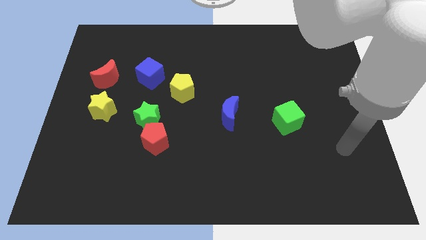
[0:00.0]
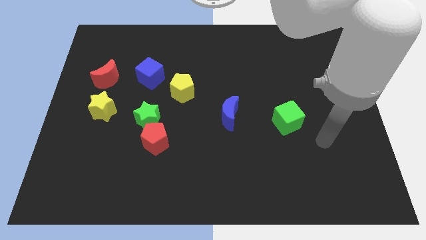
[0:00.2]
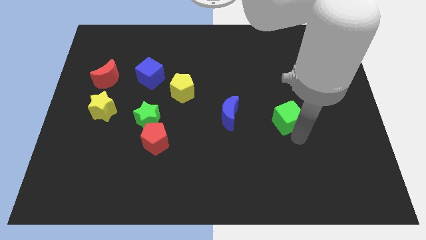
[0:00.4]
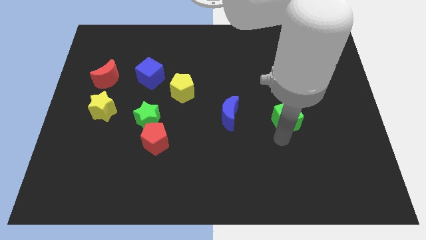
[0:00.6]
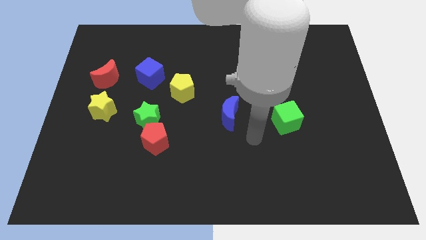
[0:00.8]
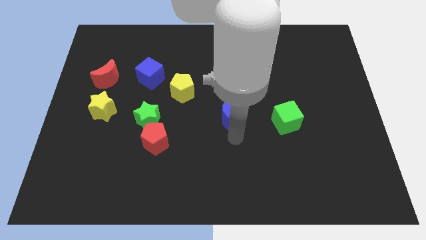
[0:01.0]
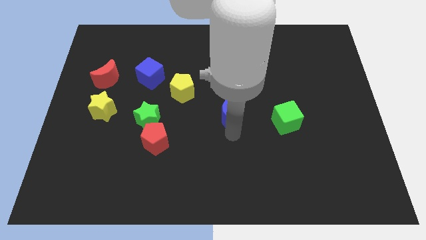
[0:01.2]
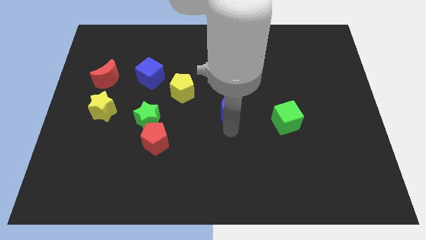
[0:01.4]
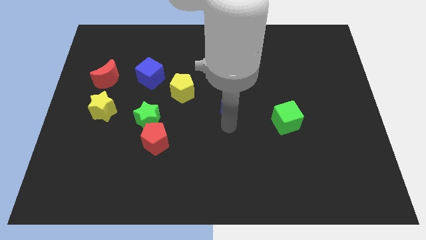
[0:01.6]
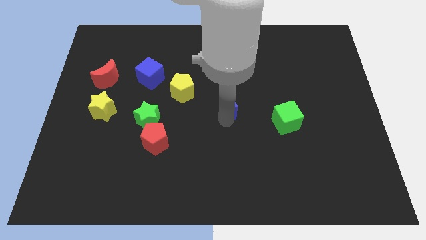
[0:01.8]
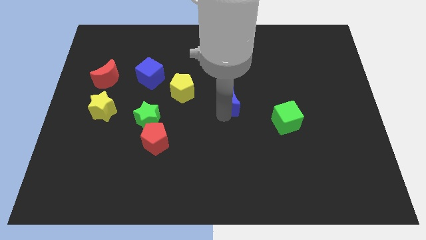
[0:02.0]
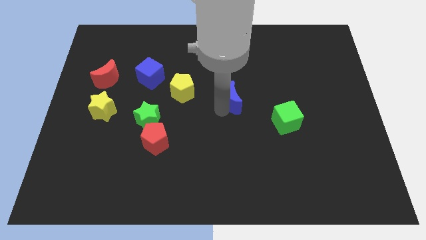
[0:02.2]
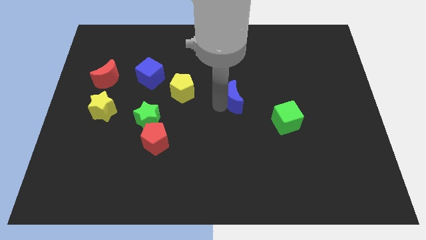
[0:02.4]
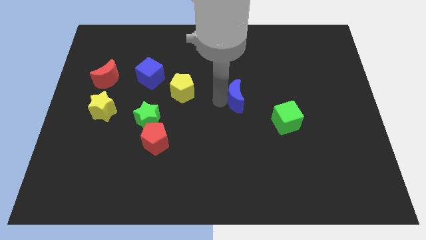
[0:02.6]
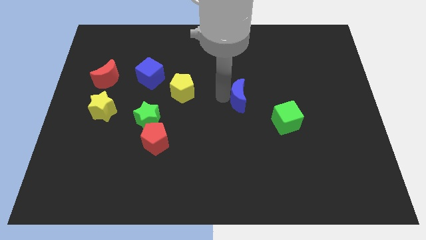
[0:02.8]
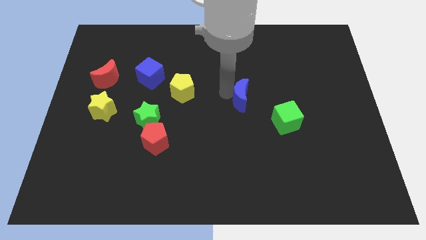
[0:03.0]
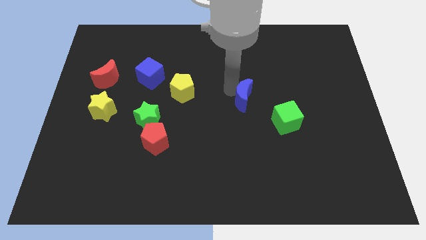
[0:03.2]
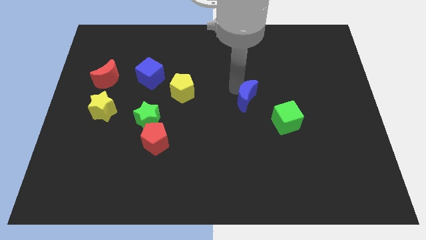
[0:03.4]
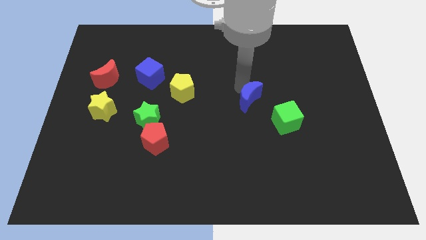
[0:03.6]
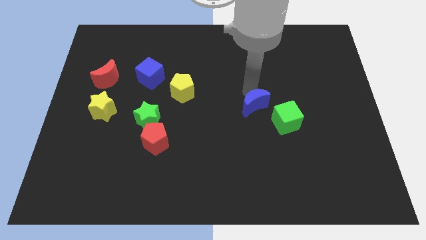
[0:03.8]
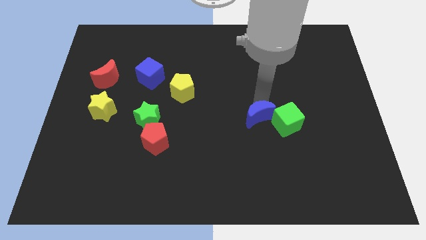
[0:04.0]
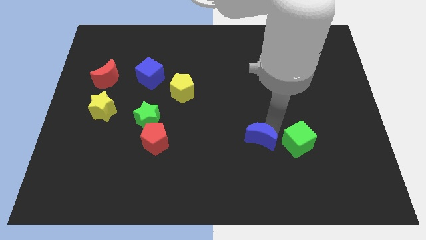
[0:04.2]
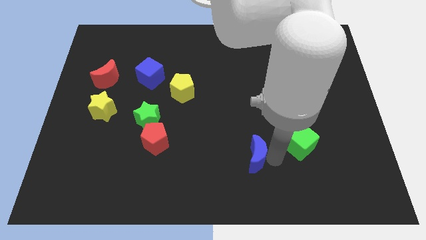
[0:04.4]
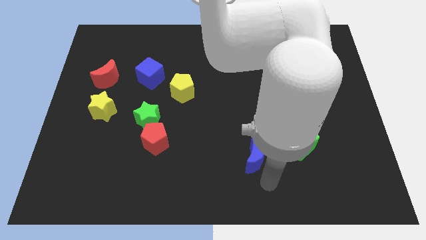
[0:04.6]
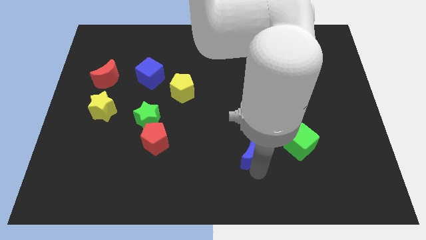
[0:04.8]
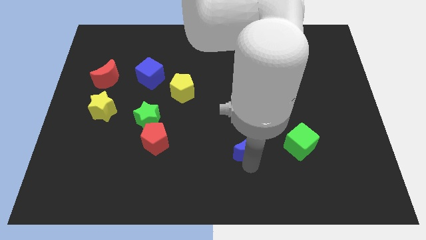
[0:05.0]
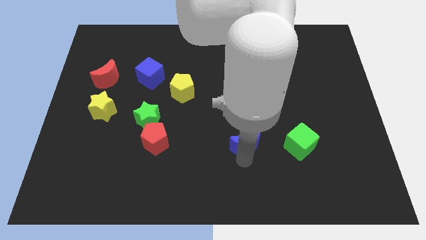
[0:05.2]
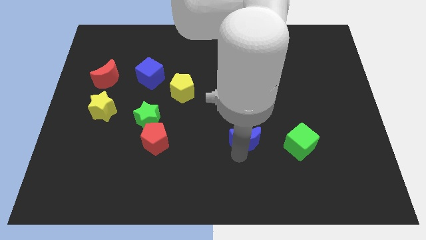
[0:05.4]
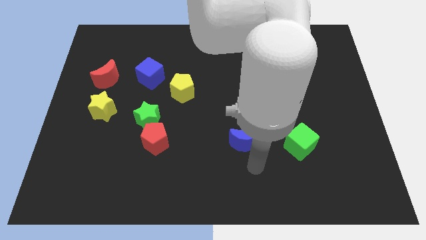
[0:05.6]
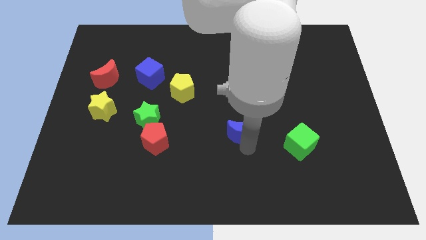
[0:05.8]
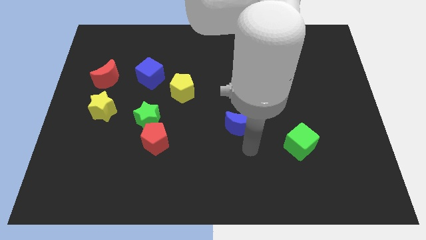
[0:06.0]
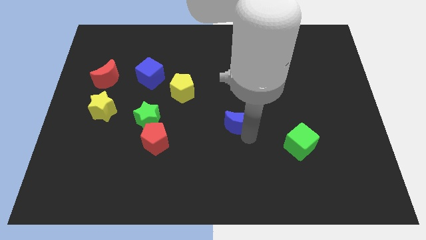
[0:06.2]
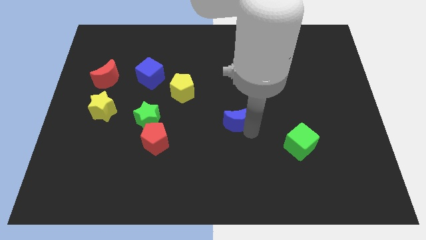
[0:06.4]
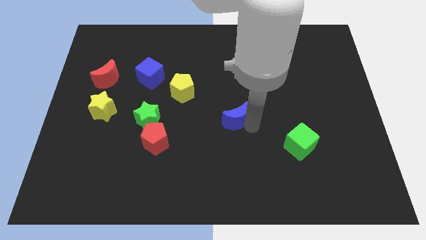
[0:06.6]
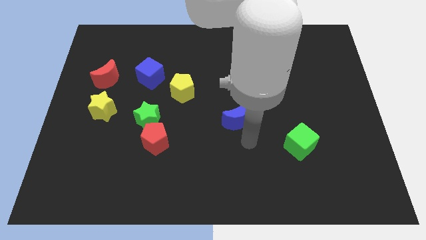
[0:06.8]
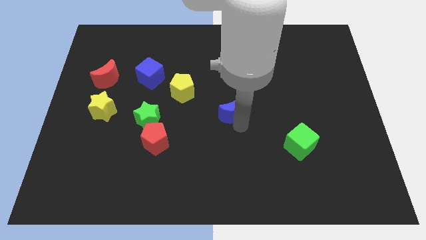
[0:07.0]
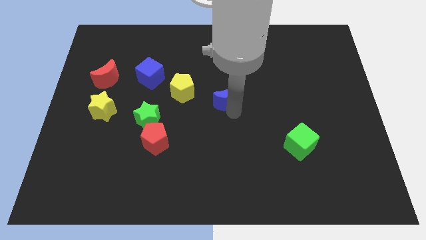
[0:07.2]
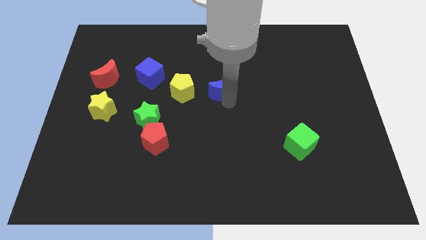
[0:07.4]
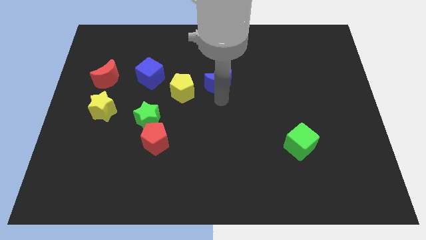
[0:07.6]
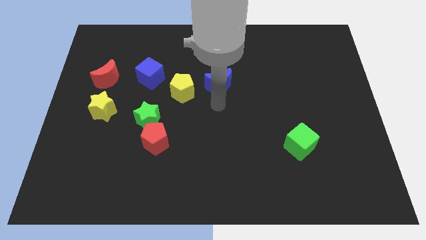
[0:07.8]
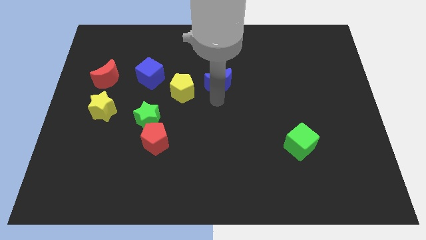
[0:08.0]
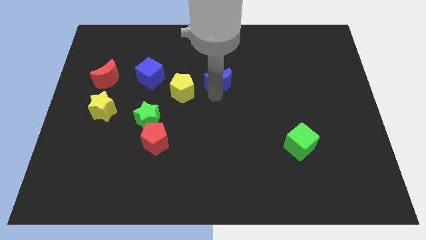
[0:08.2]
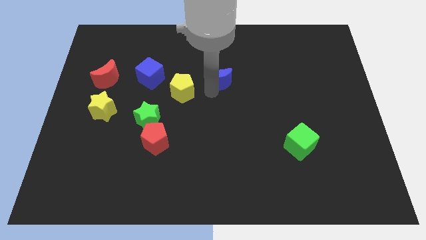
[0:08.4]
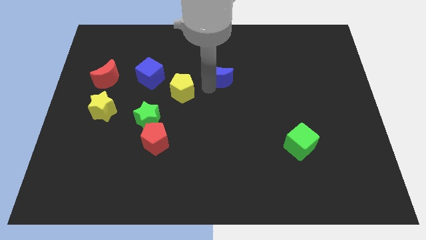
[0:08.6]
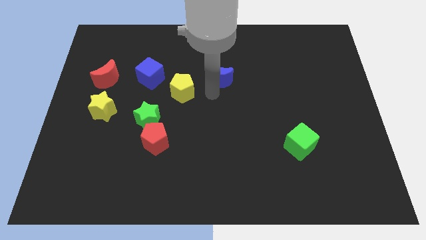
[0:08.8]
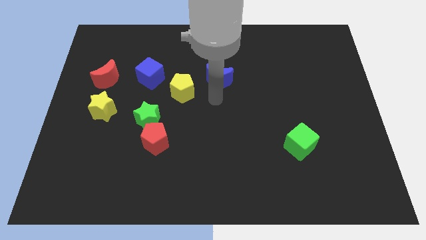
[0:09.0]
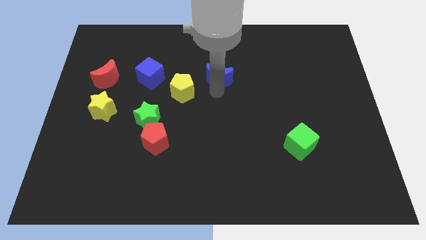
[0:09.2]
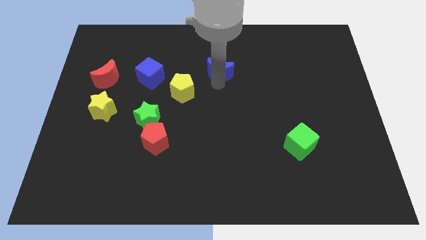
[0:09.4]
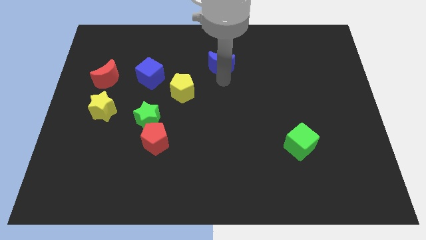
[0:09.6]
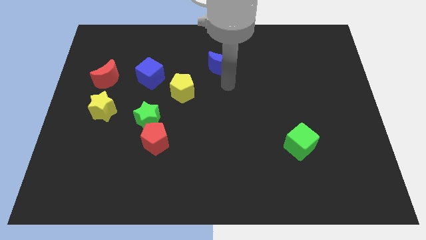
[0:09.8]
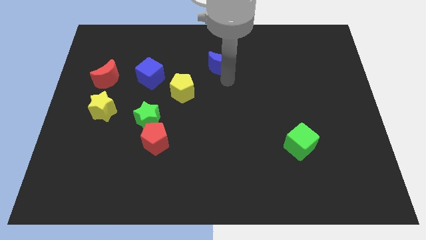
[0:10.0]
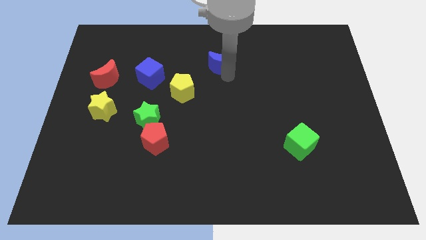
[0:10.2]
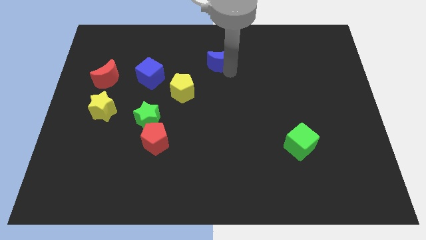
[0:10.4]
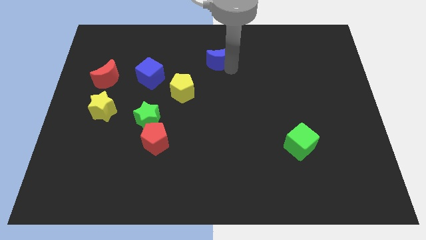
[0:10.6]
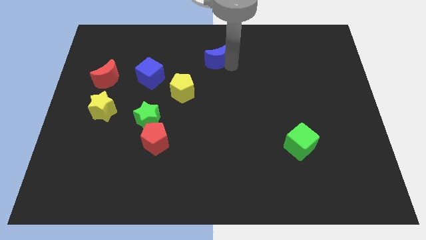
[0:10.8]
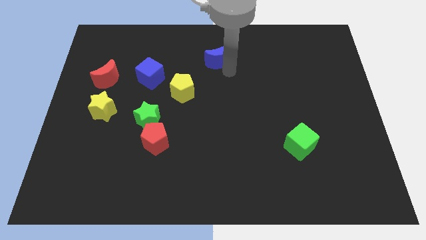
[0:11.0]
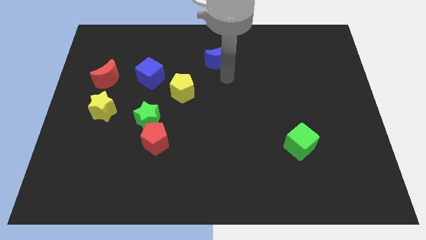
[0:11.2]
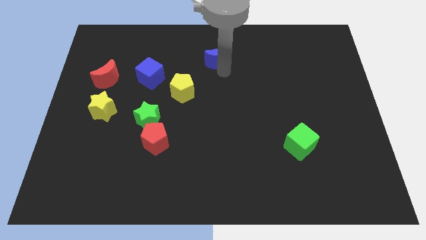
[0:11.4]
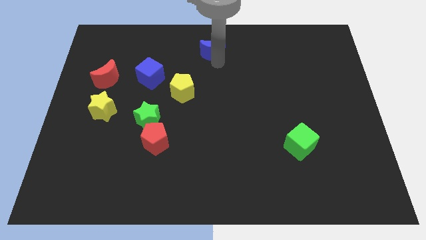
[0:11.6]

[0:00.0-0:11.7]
slide the blue moon to the top

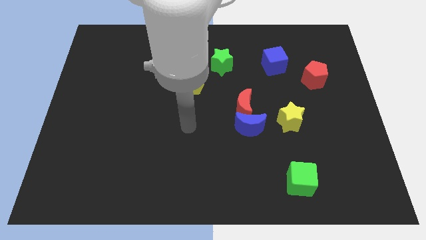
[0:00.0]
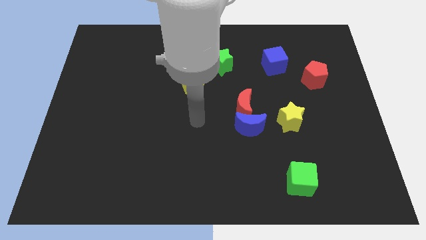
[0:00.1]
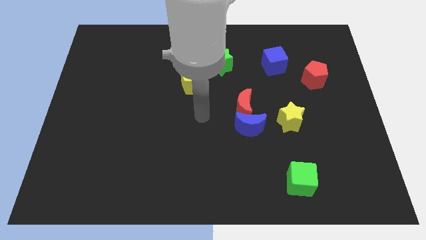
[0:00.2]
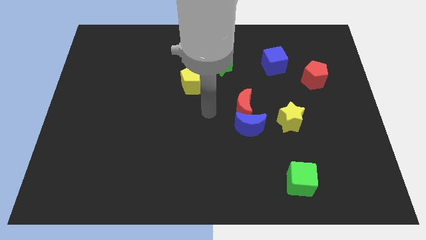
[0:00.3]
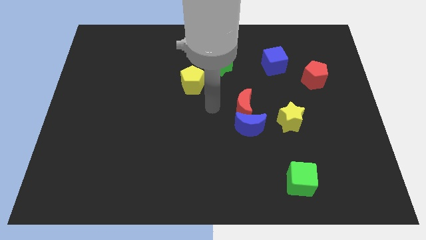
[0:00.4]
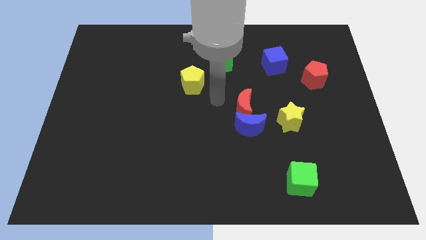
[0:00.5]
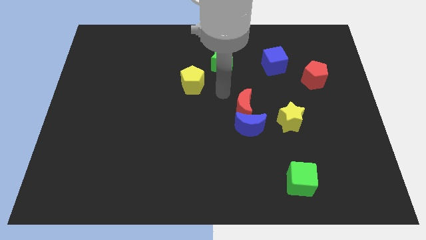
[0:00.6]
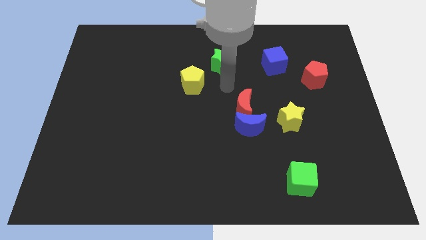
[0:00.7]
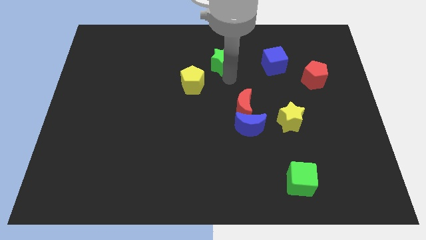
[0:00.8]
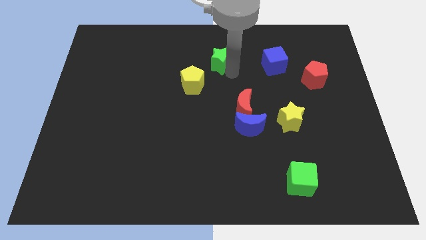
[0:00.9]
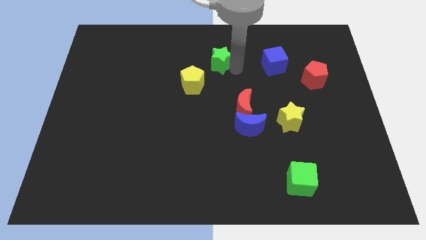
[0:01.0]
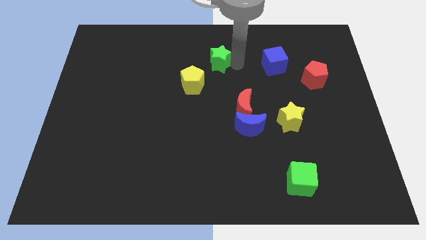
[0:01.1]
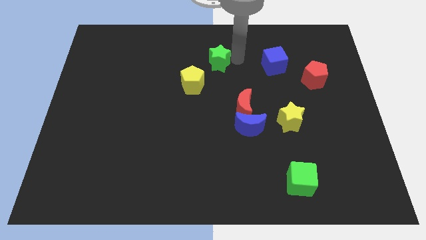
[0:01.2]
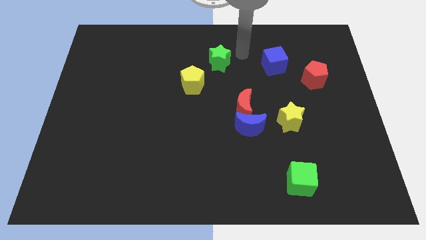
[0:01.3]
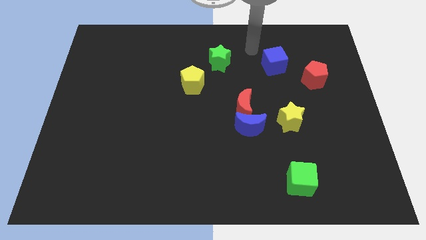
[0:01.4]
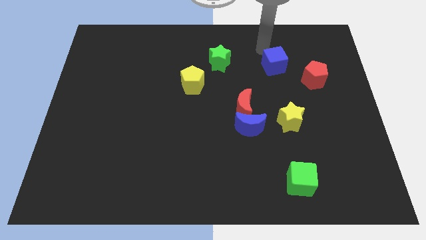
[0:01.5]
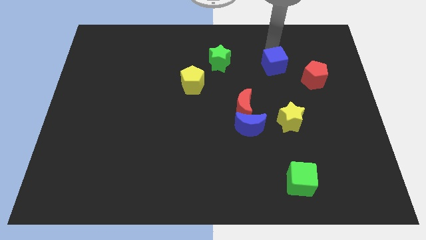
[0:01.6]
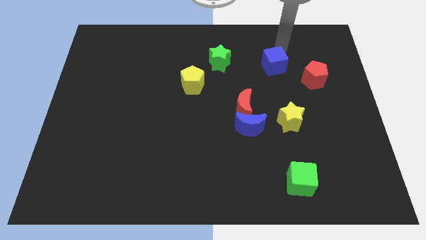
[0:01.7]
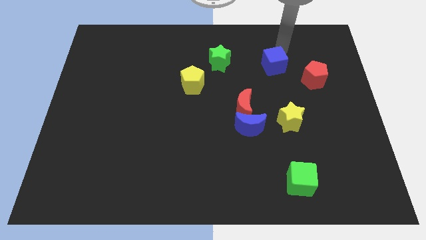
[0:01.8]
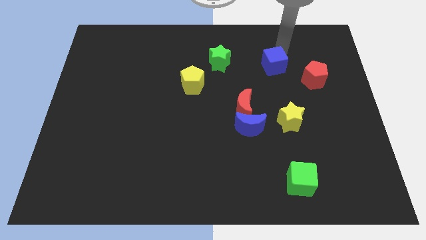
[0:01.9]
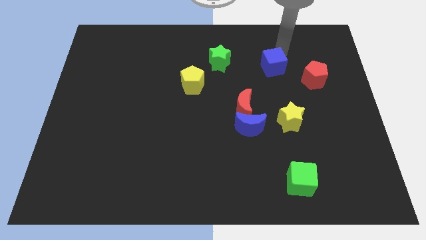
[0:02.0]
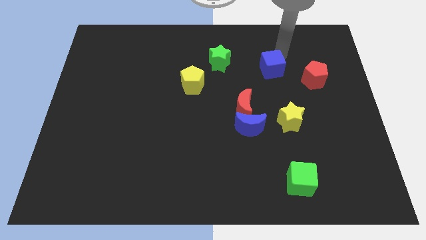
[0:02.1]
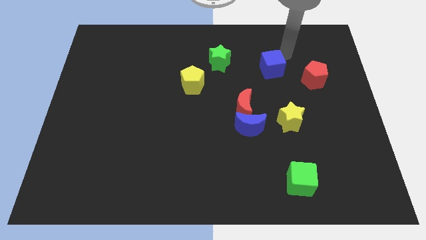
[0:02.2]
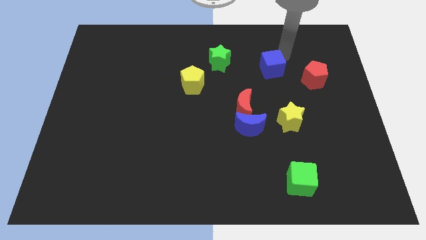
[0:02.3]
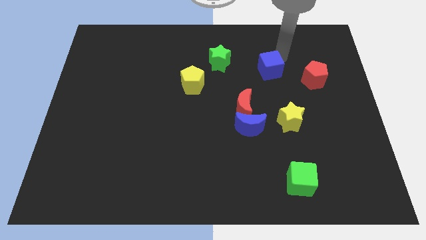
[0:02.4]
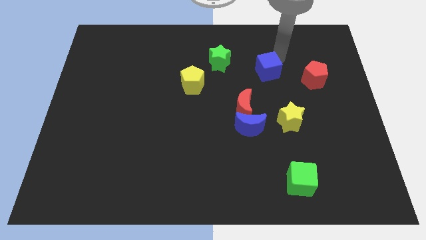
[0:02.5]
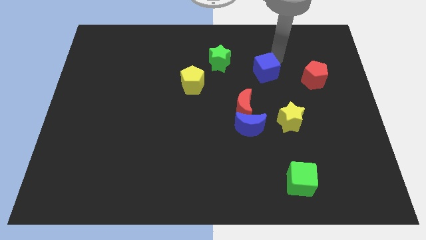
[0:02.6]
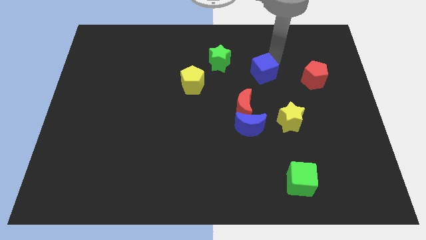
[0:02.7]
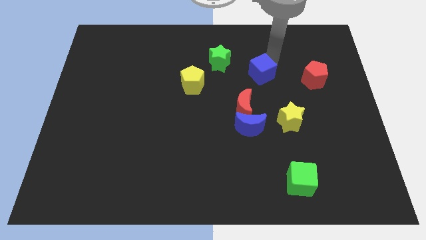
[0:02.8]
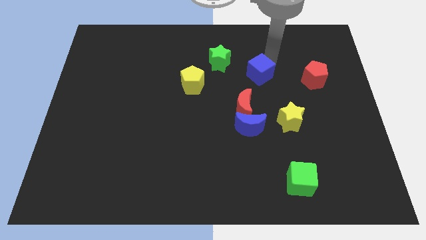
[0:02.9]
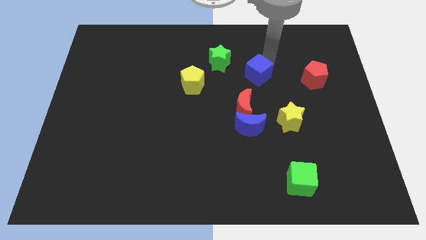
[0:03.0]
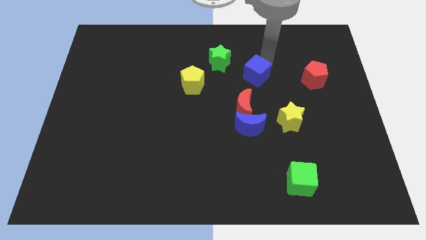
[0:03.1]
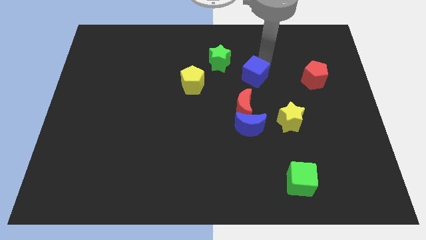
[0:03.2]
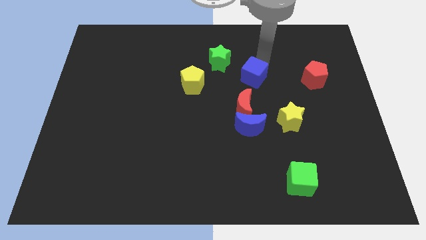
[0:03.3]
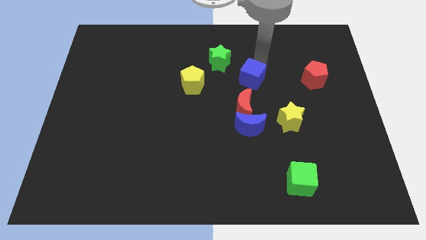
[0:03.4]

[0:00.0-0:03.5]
move the blue cube to the center
